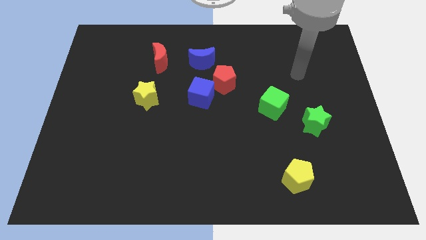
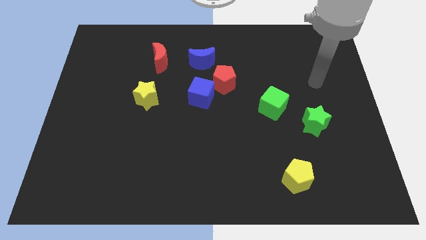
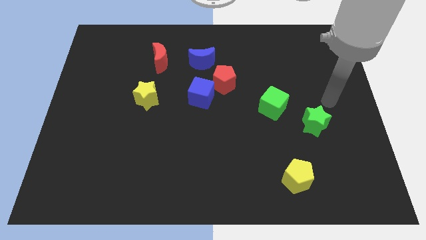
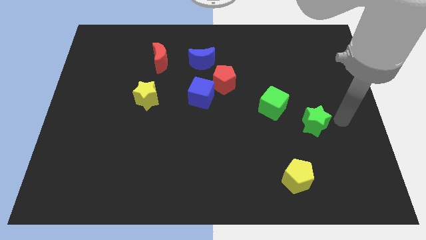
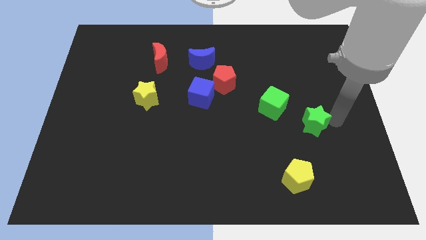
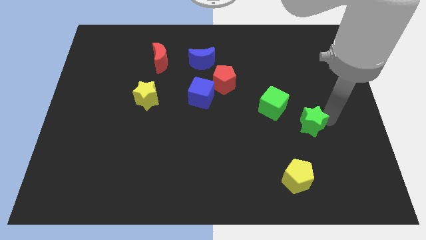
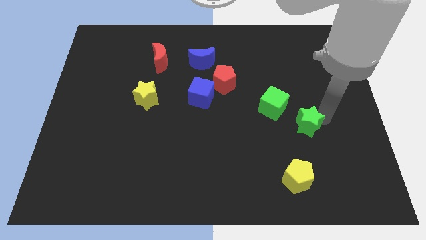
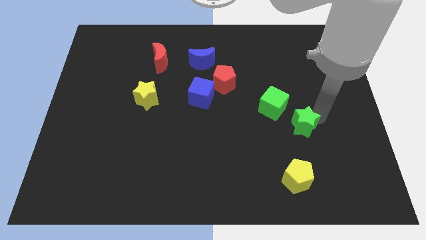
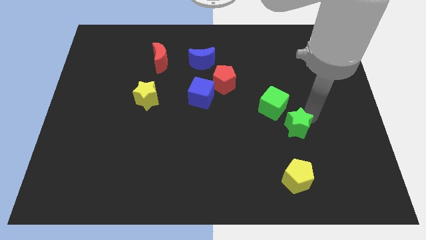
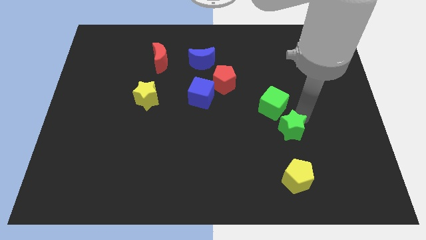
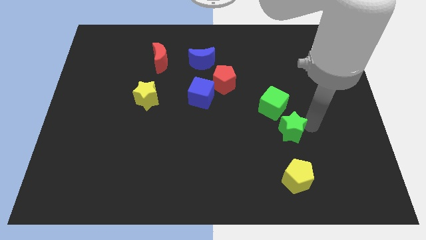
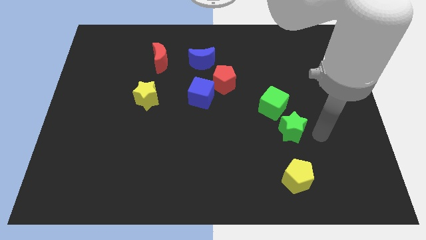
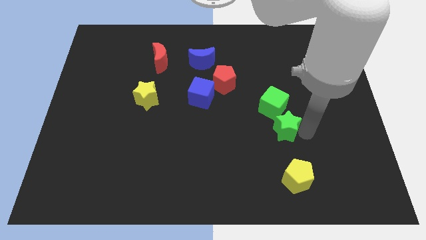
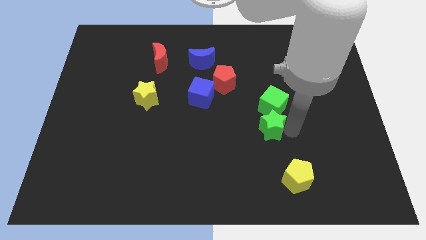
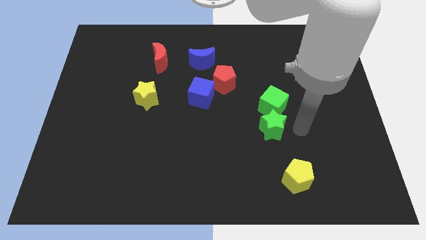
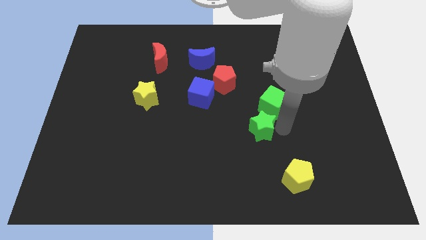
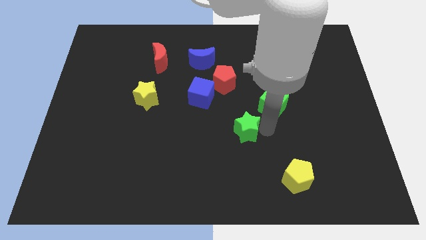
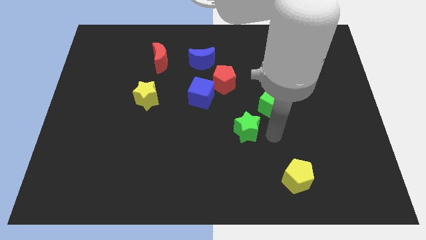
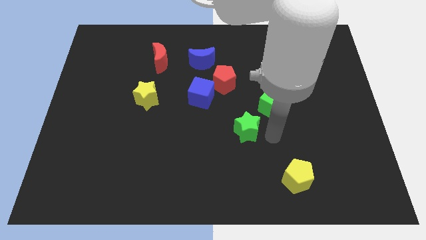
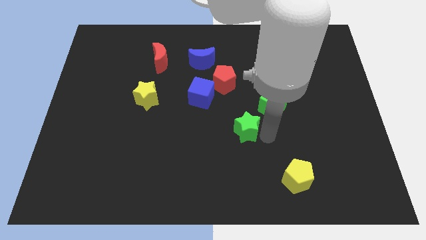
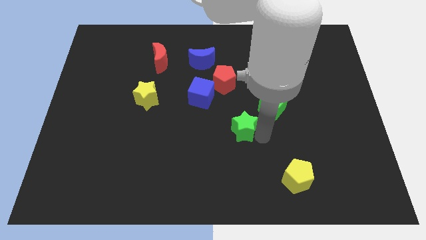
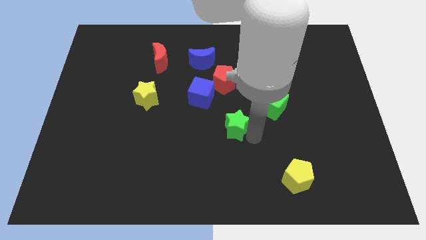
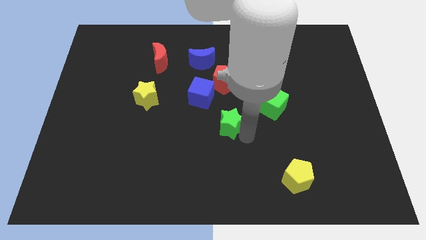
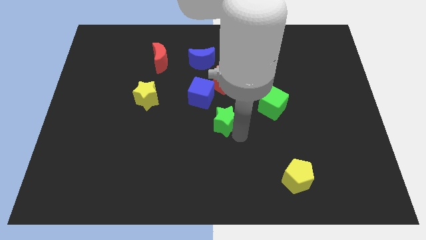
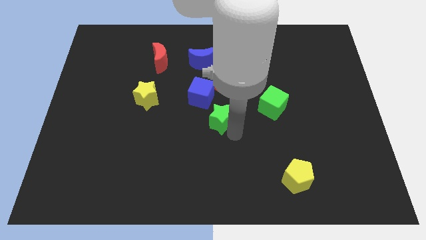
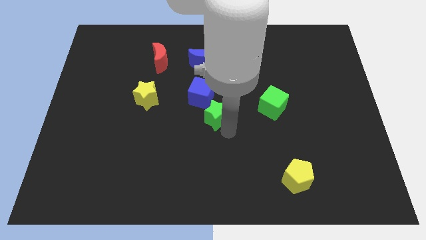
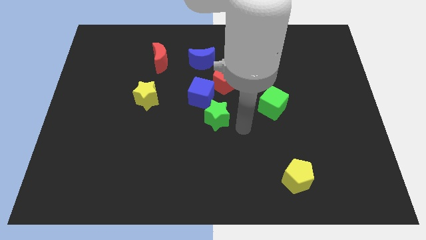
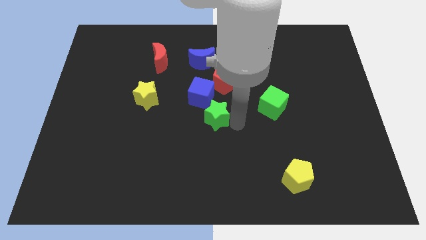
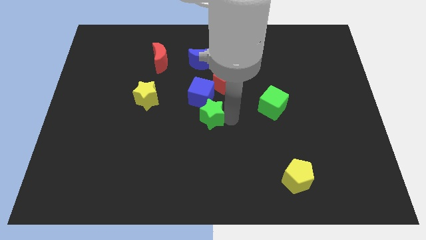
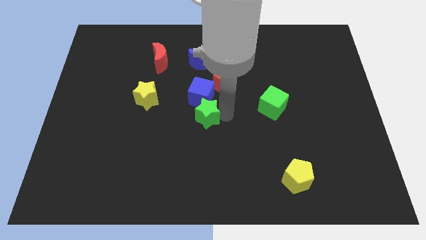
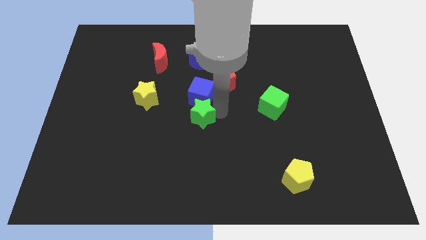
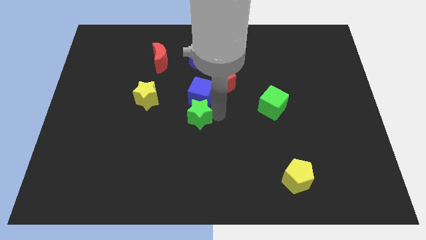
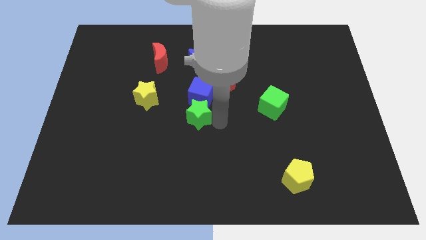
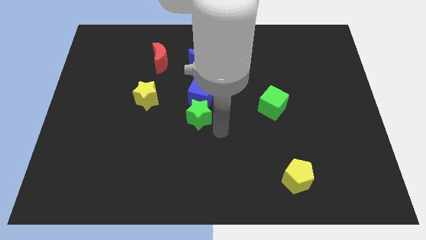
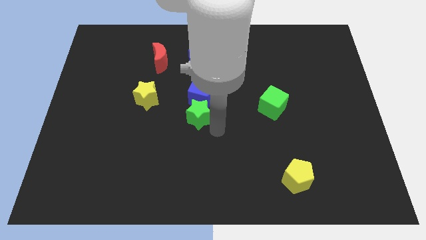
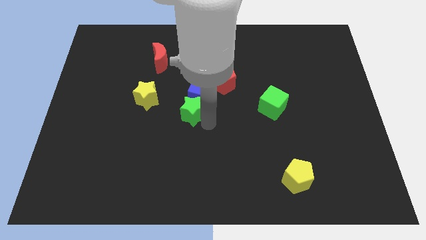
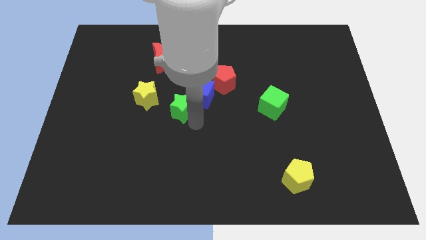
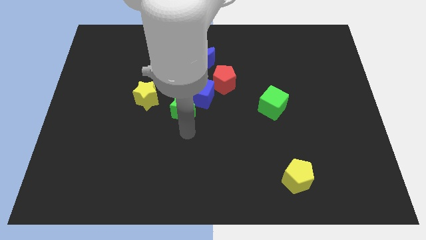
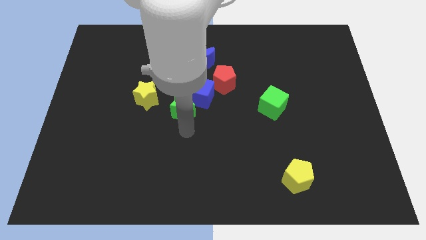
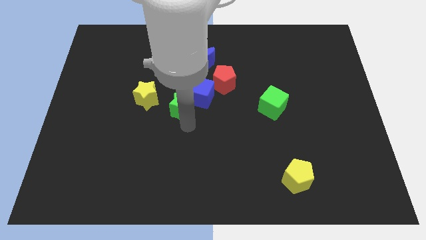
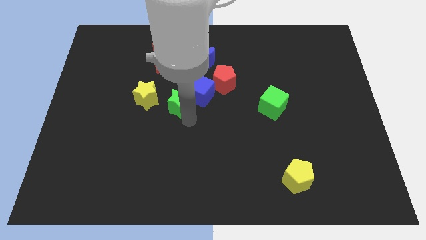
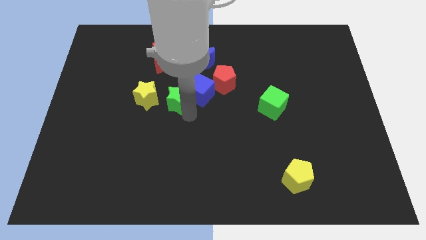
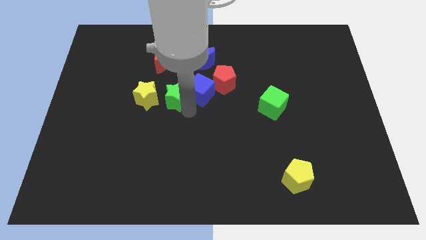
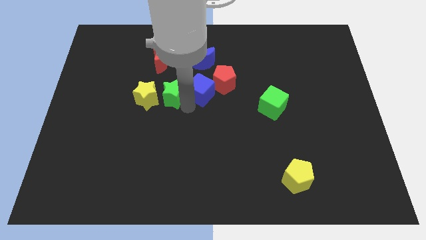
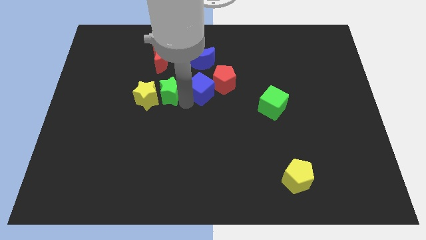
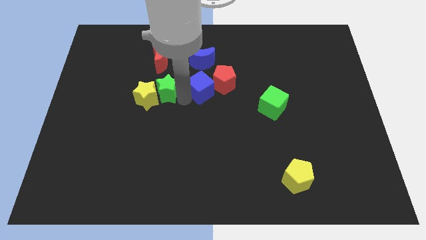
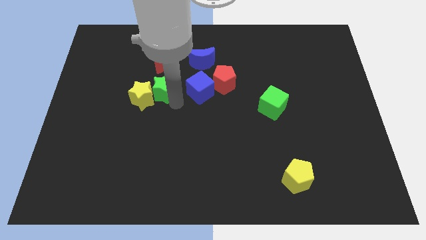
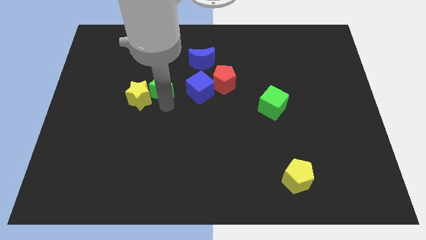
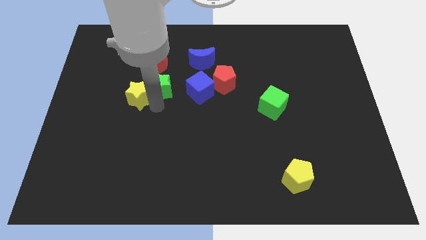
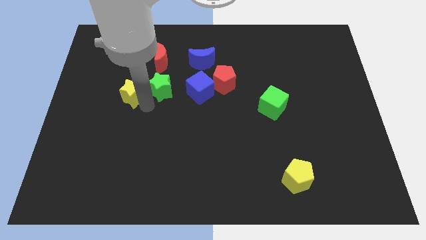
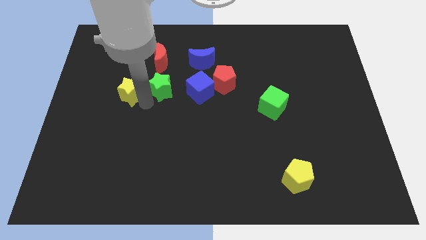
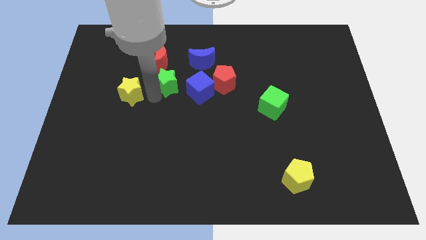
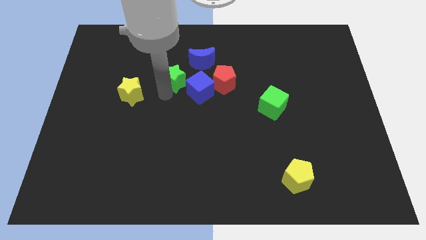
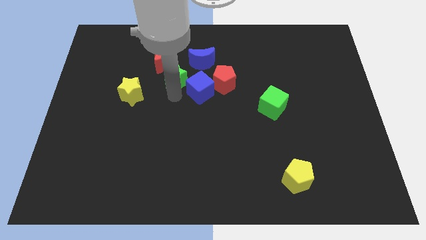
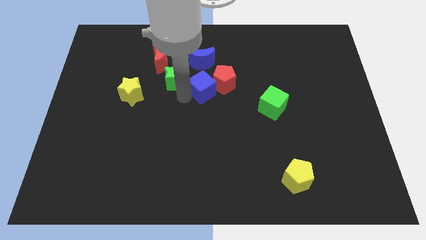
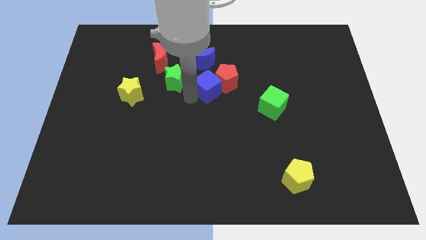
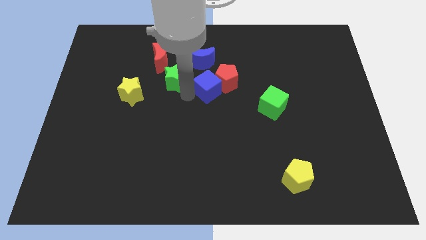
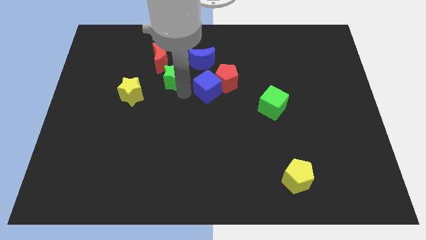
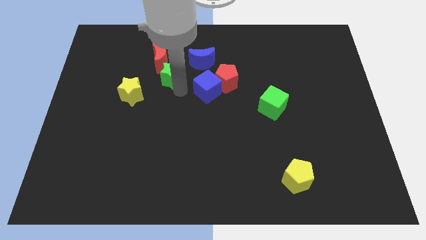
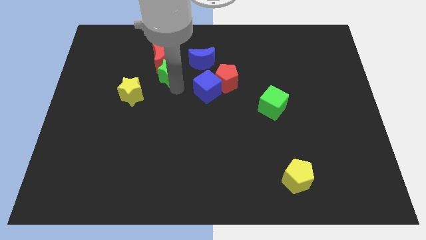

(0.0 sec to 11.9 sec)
push the green star towards the red moon

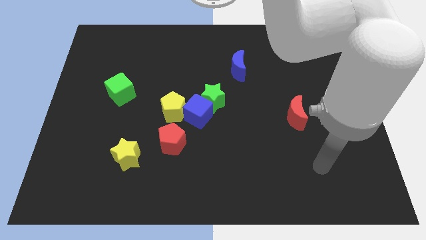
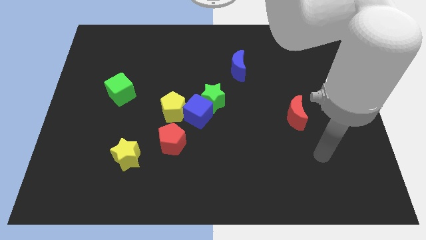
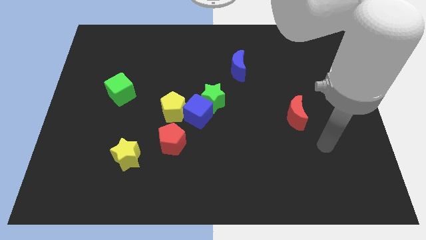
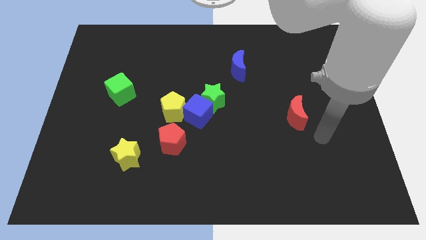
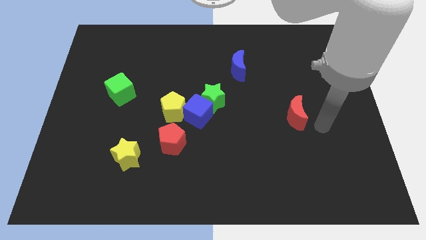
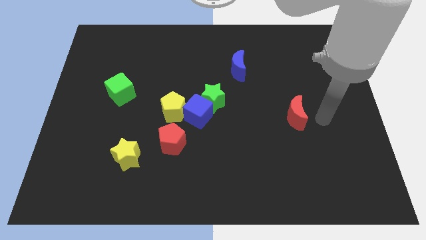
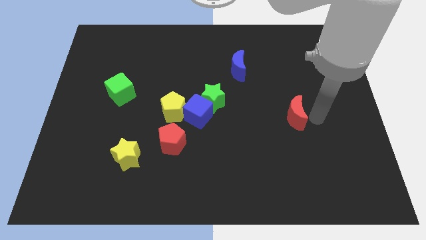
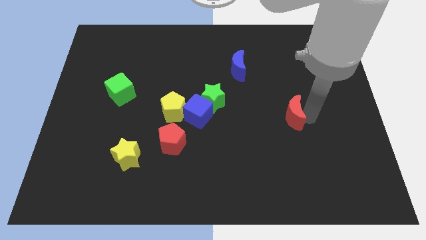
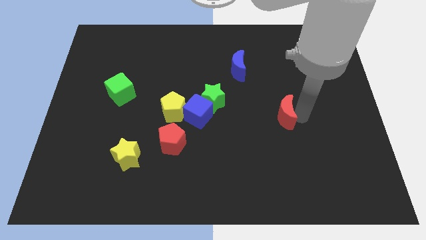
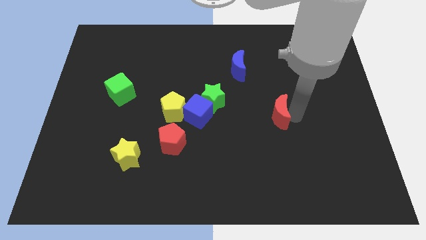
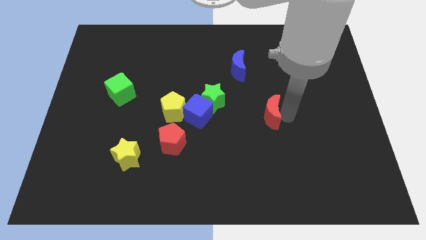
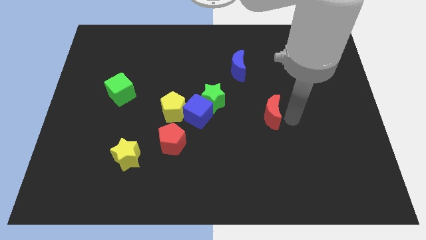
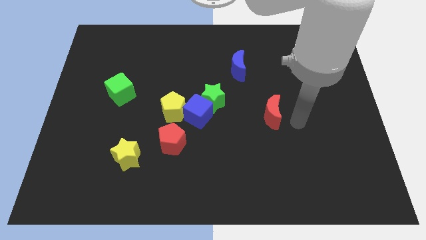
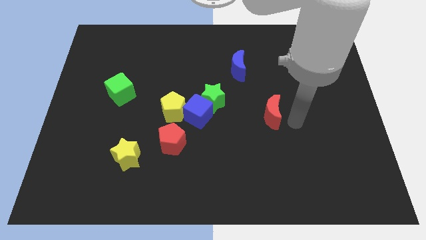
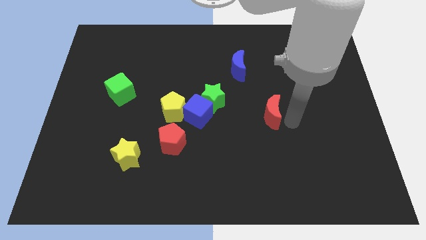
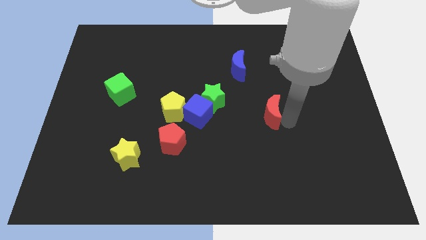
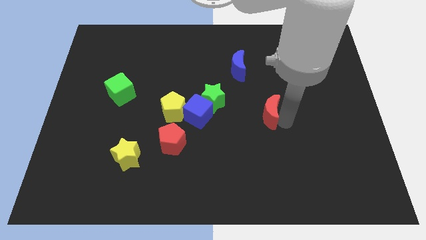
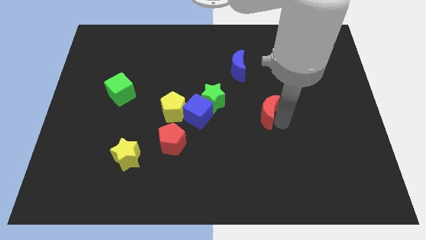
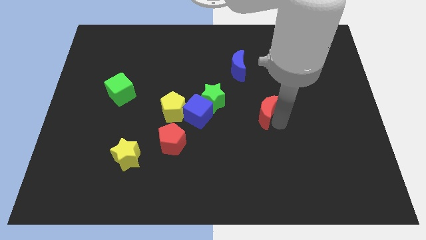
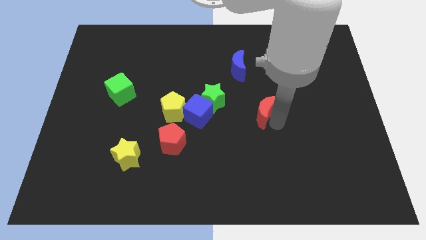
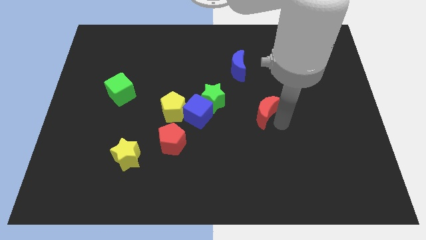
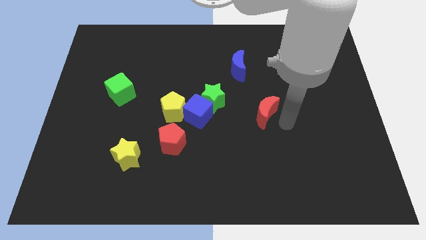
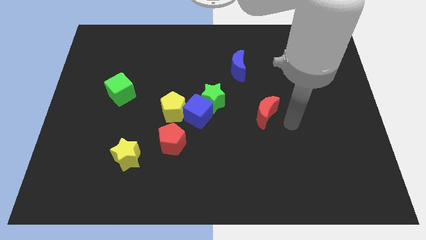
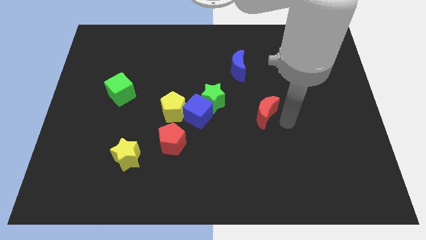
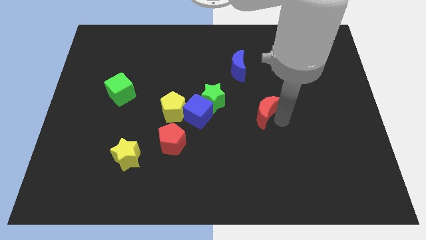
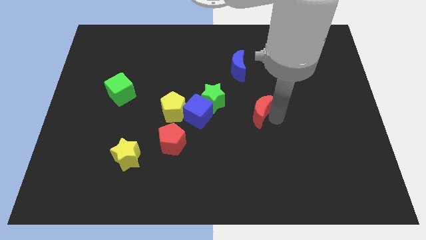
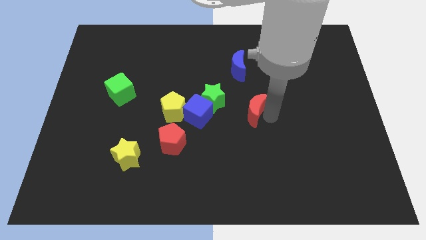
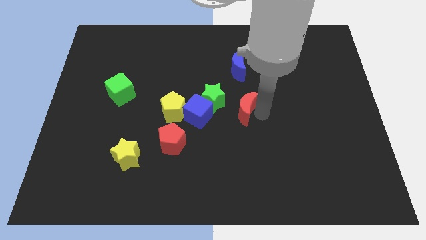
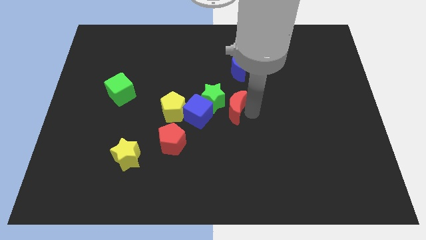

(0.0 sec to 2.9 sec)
slide the red moon next to the green star
